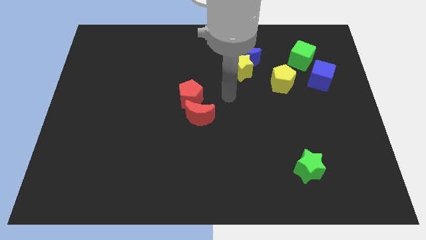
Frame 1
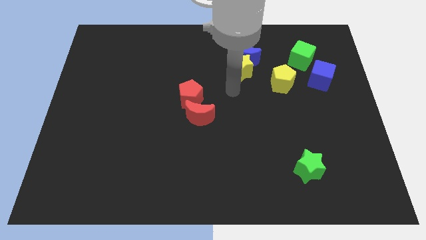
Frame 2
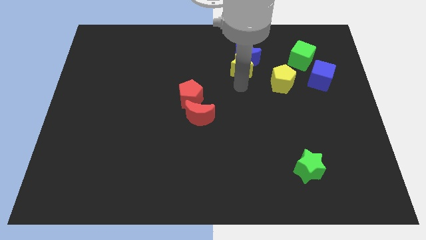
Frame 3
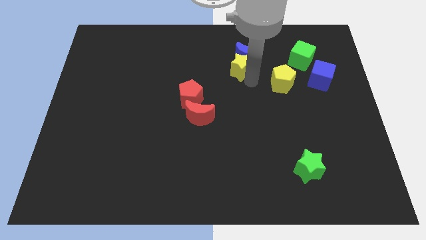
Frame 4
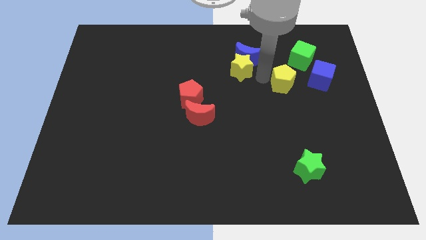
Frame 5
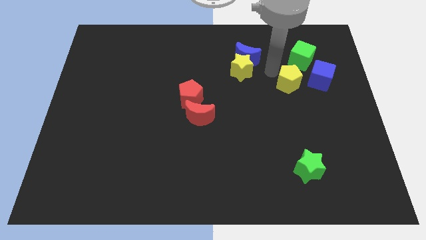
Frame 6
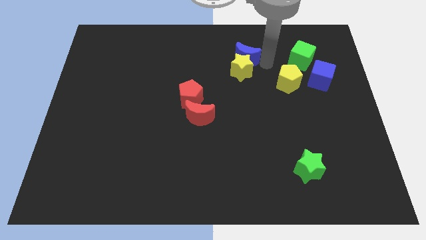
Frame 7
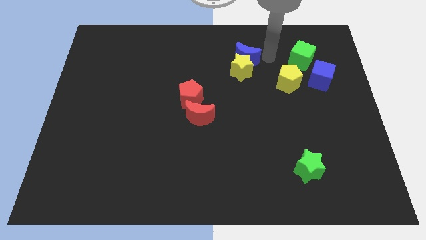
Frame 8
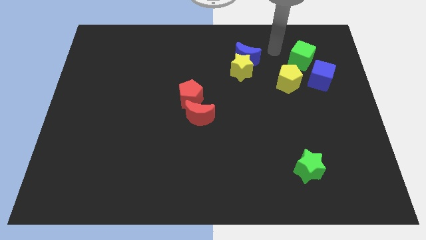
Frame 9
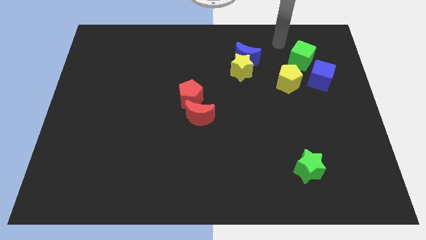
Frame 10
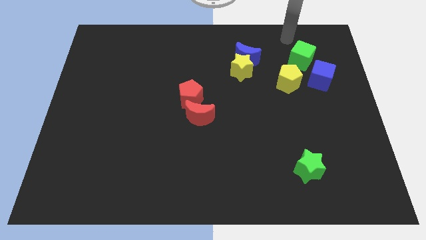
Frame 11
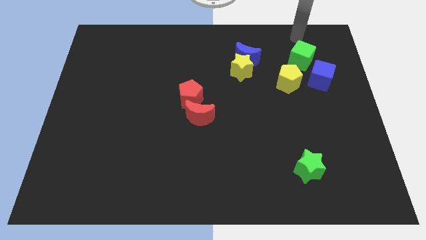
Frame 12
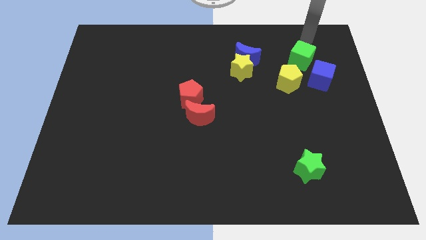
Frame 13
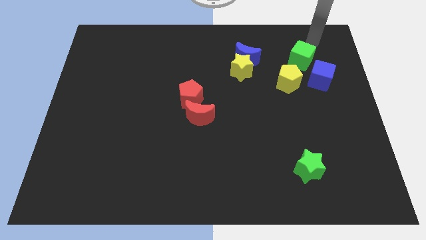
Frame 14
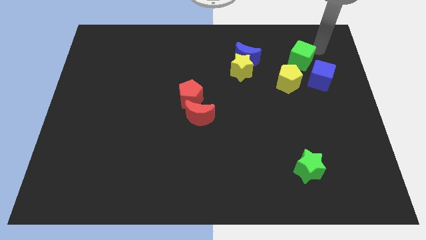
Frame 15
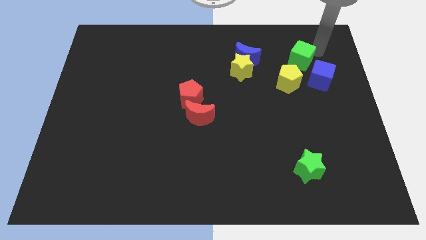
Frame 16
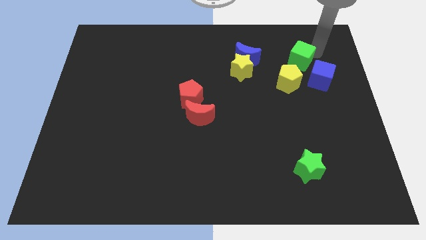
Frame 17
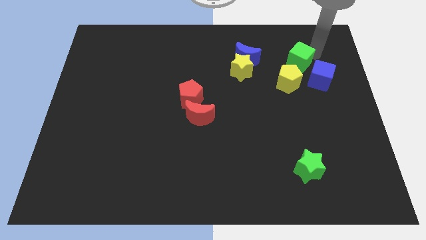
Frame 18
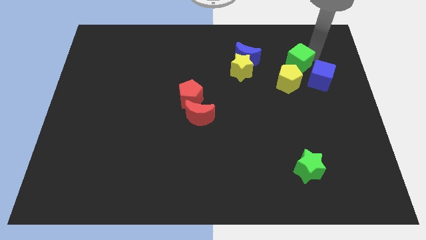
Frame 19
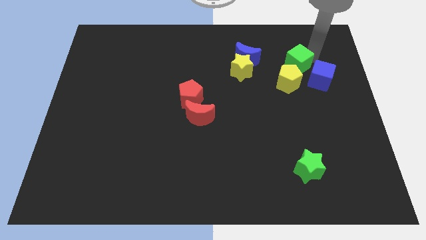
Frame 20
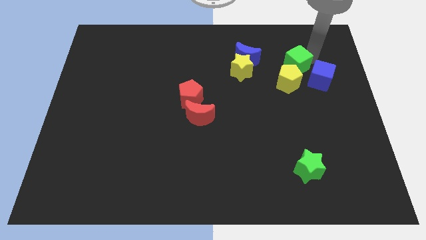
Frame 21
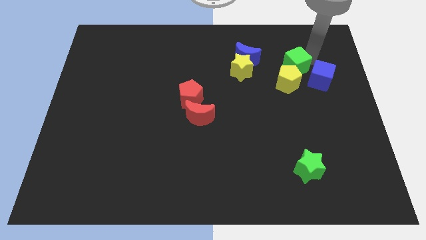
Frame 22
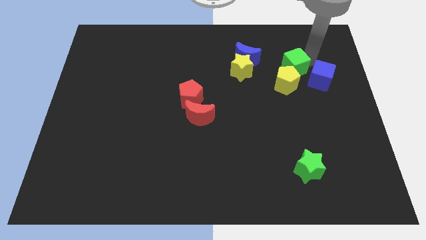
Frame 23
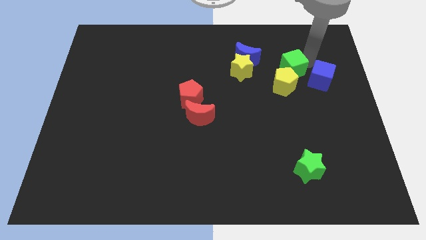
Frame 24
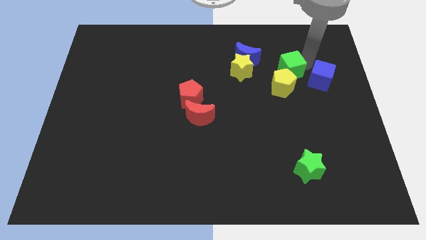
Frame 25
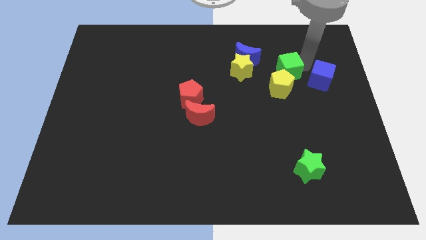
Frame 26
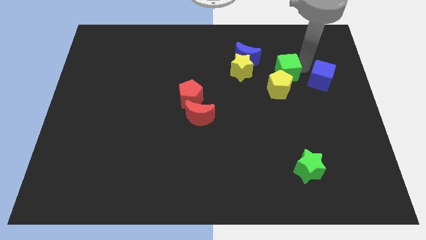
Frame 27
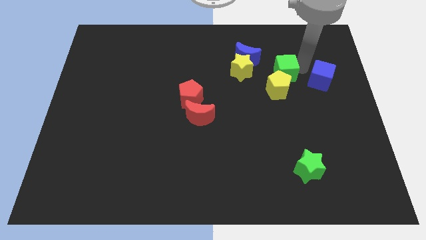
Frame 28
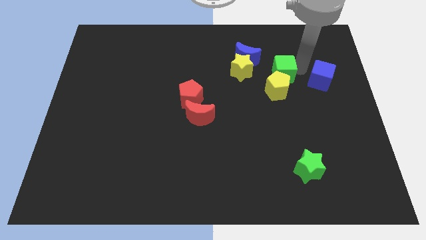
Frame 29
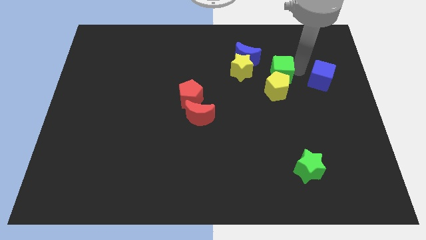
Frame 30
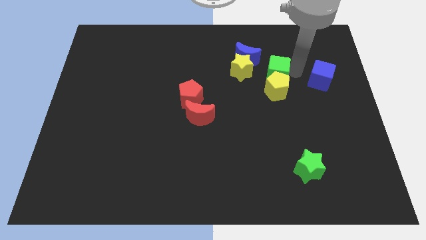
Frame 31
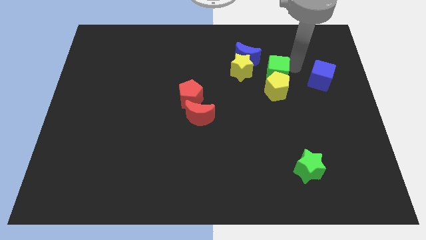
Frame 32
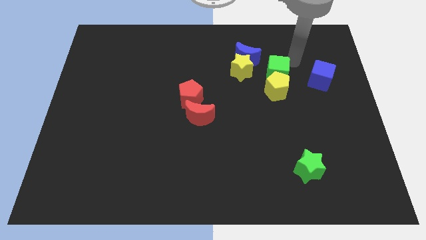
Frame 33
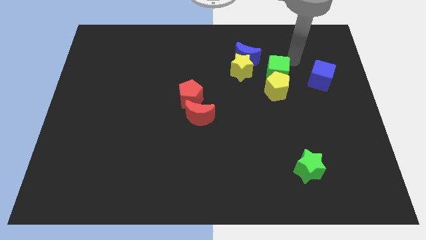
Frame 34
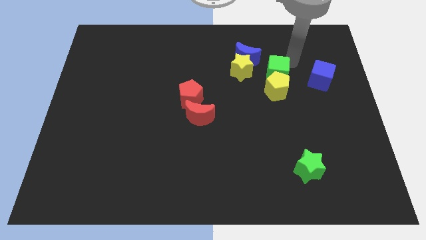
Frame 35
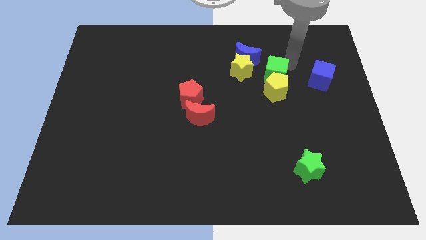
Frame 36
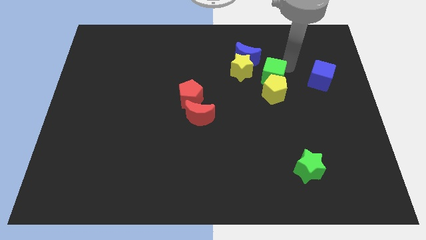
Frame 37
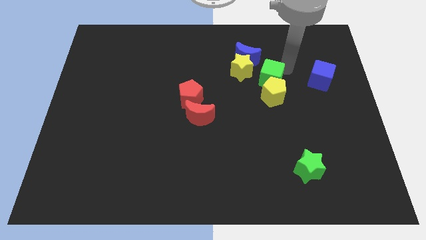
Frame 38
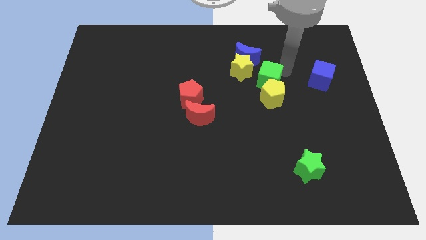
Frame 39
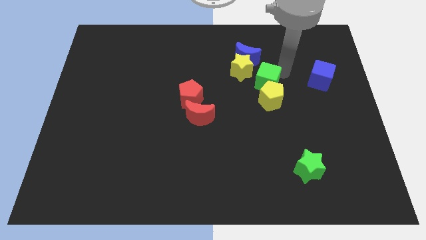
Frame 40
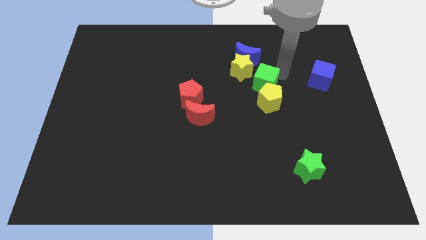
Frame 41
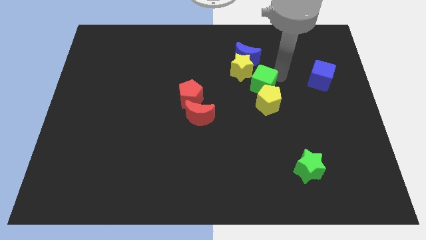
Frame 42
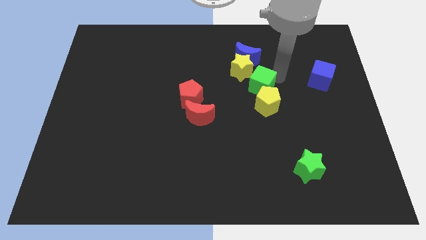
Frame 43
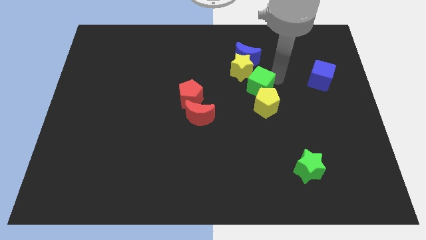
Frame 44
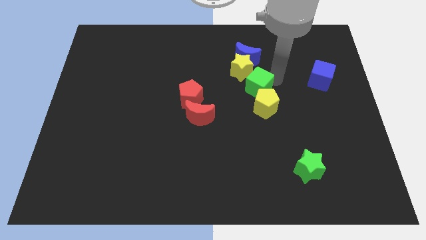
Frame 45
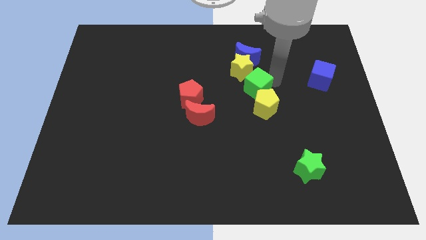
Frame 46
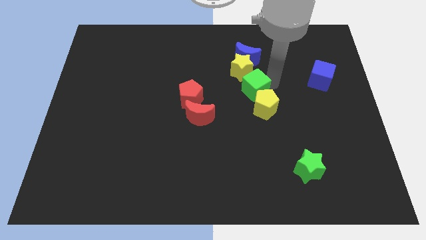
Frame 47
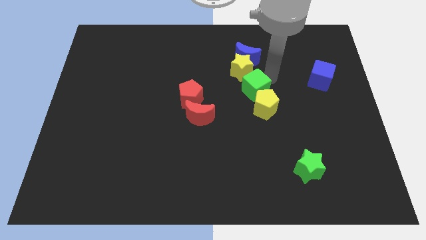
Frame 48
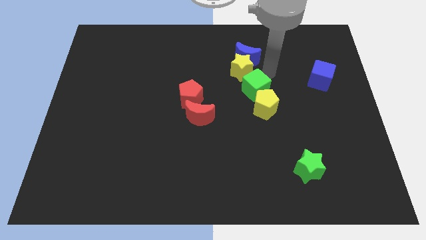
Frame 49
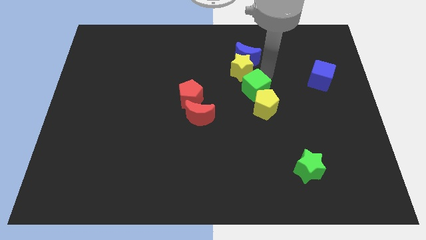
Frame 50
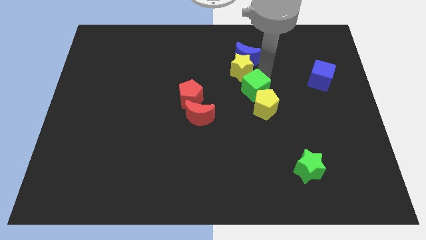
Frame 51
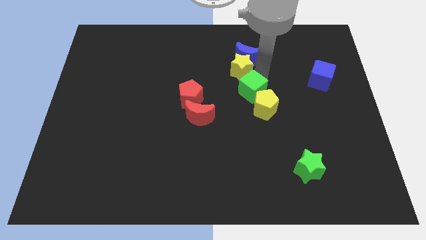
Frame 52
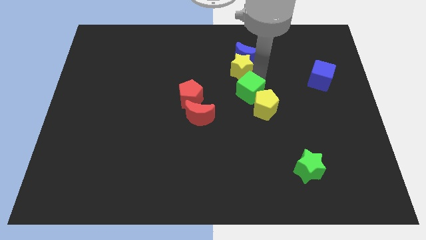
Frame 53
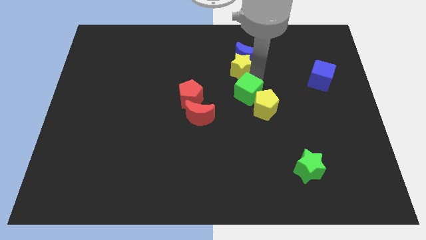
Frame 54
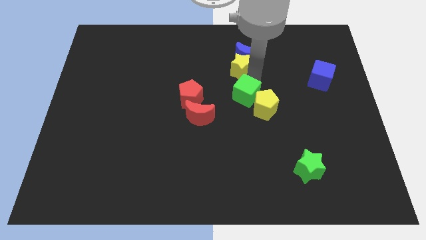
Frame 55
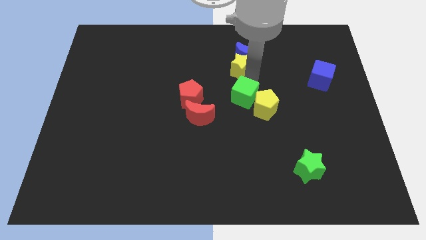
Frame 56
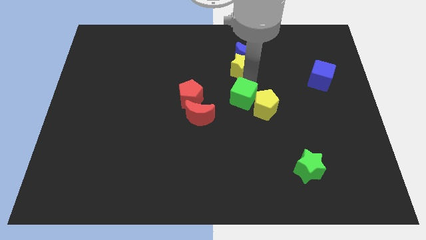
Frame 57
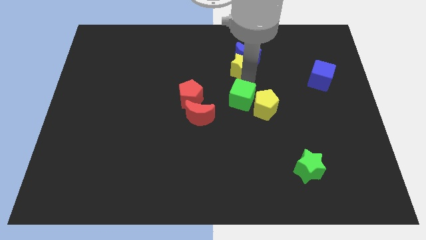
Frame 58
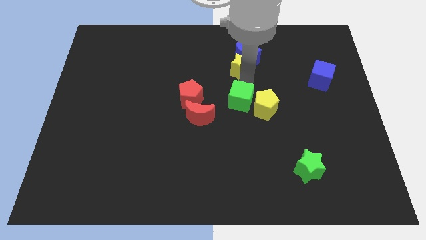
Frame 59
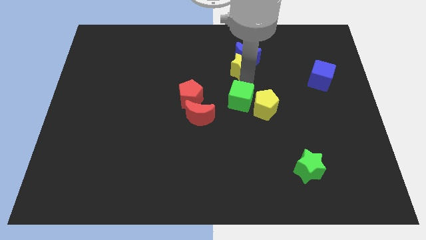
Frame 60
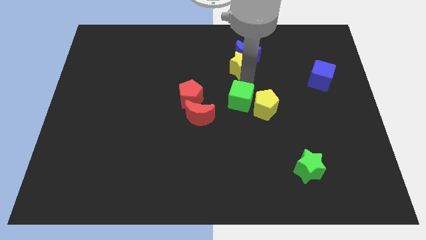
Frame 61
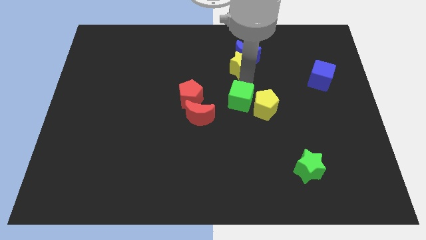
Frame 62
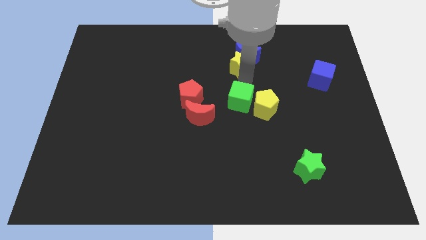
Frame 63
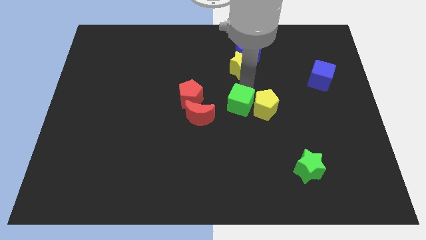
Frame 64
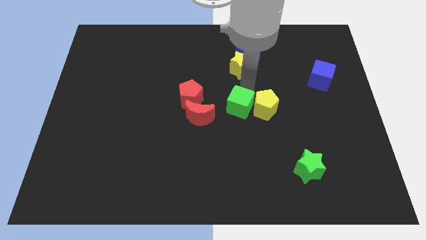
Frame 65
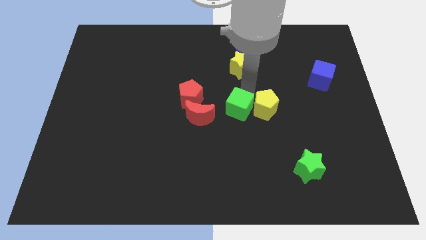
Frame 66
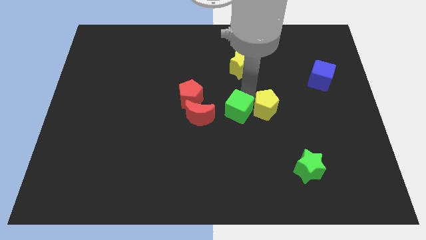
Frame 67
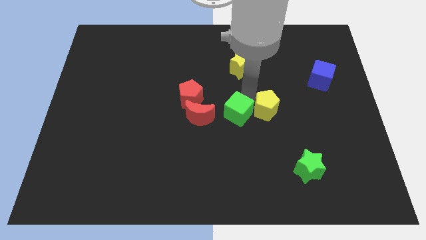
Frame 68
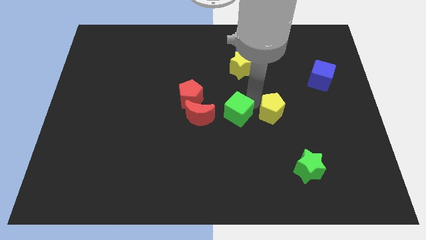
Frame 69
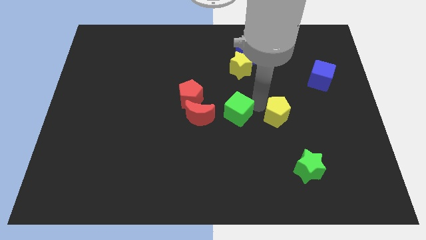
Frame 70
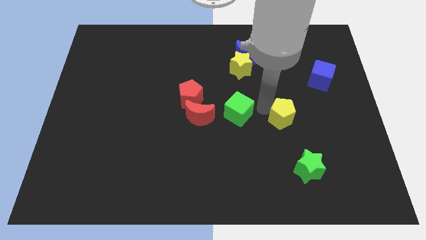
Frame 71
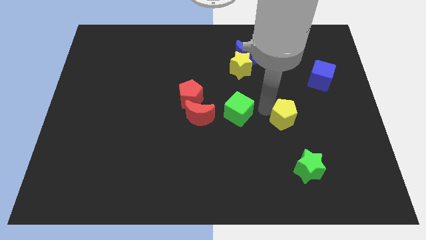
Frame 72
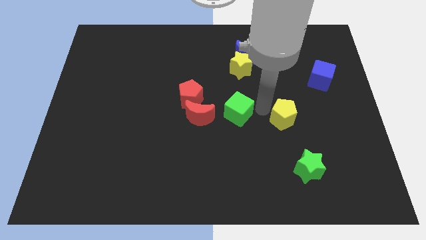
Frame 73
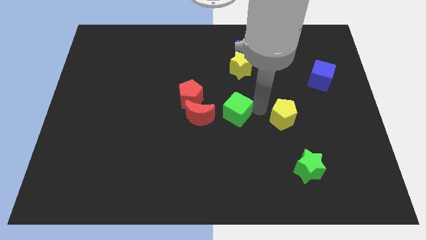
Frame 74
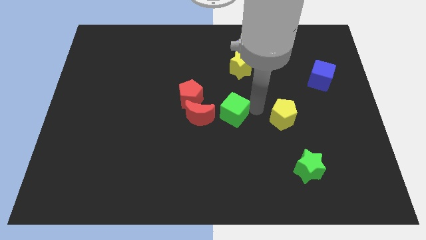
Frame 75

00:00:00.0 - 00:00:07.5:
push the green cube diagonally down and to the right of the red pentagon
